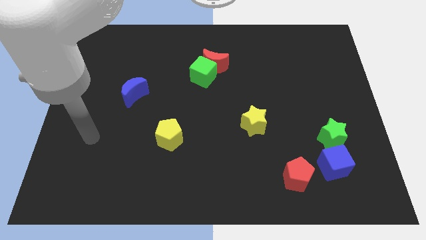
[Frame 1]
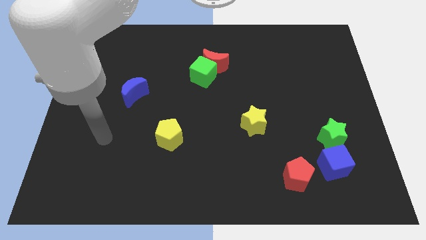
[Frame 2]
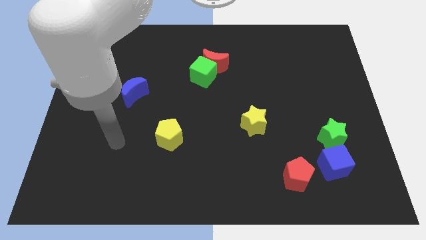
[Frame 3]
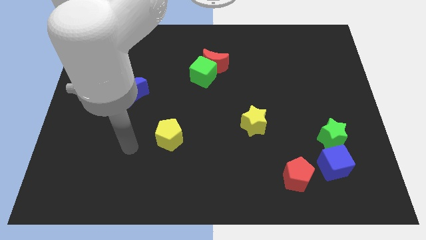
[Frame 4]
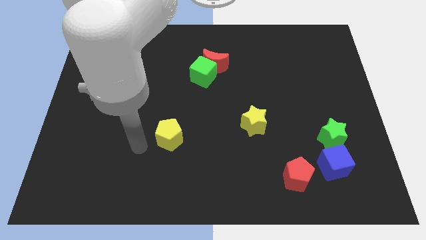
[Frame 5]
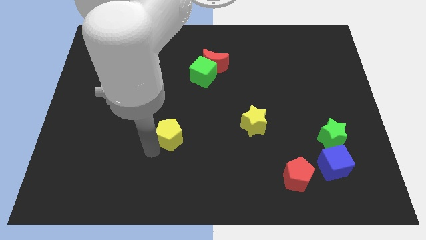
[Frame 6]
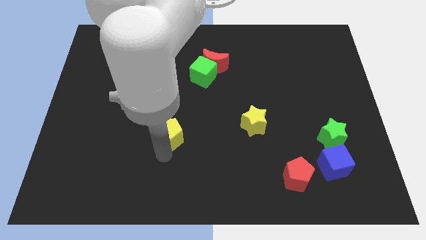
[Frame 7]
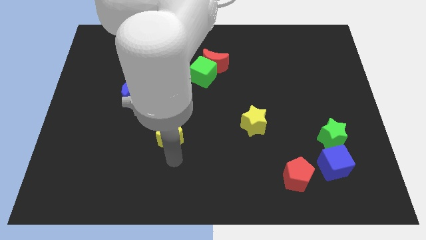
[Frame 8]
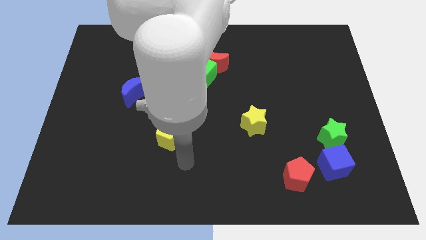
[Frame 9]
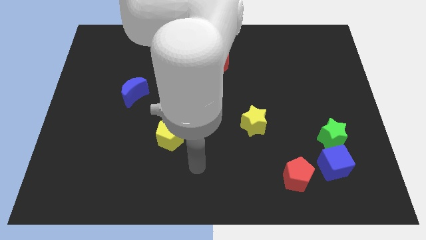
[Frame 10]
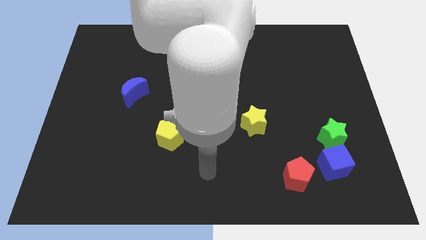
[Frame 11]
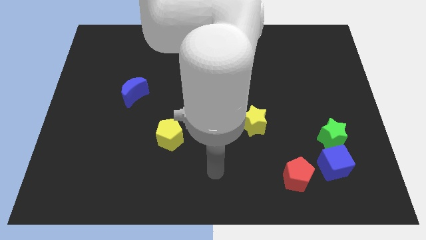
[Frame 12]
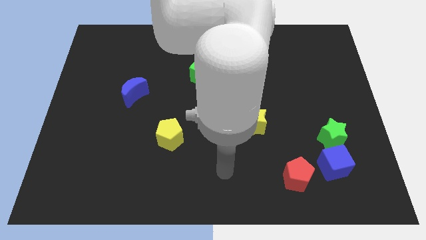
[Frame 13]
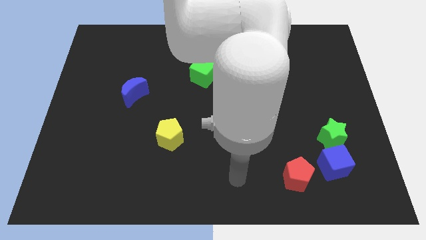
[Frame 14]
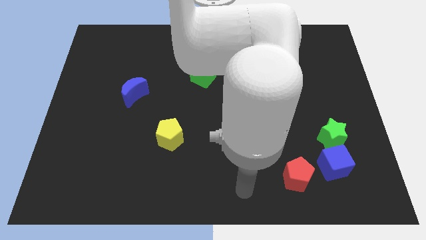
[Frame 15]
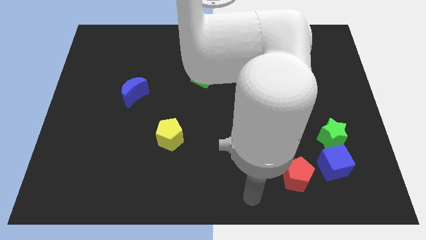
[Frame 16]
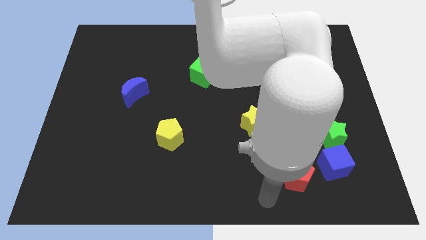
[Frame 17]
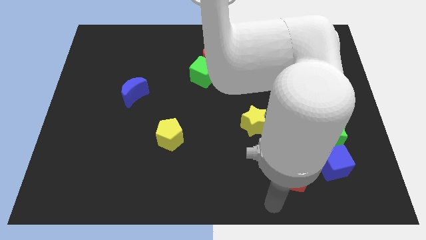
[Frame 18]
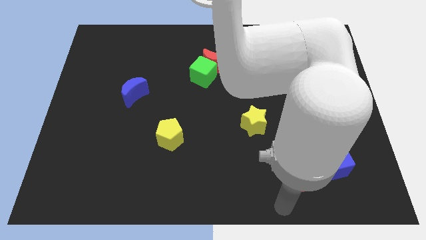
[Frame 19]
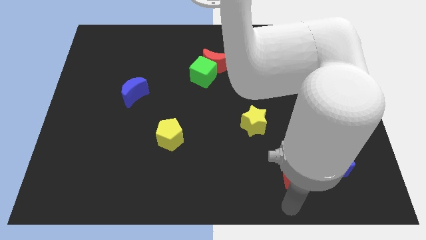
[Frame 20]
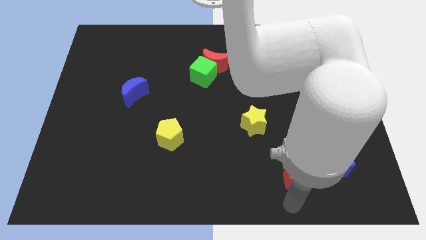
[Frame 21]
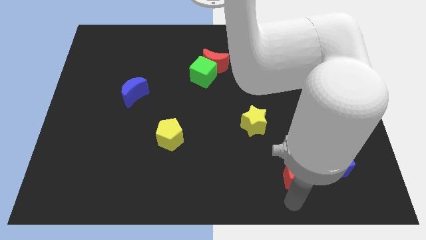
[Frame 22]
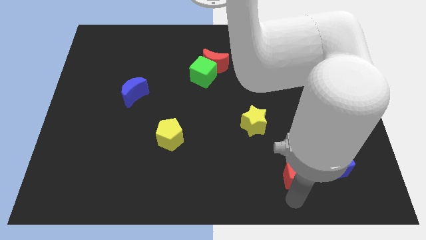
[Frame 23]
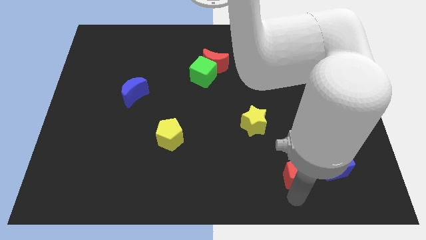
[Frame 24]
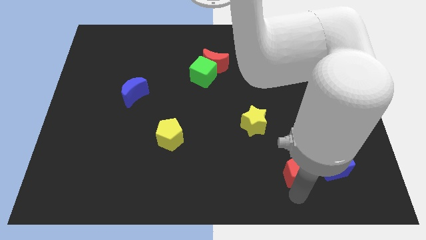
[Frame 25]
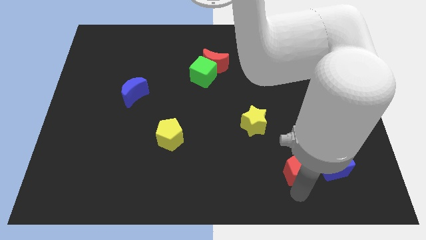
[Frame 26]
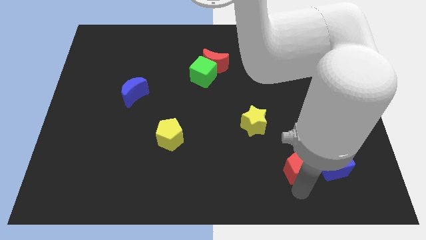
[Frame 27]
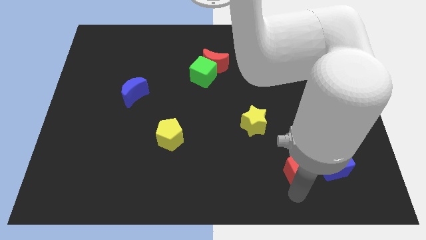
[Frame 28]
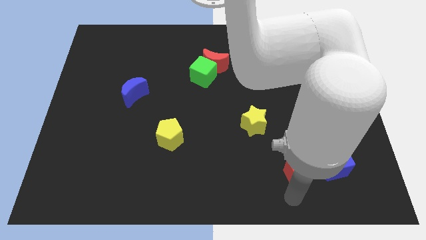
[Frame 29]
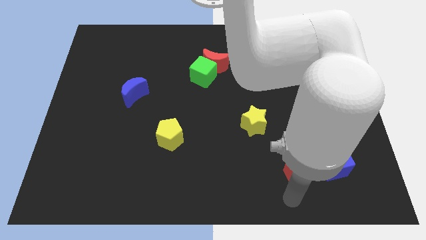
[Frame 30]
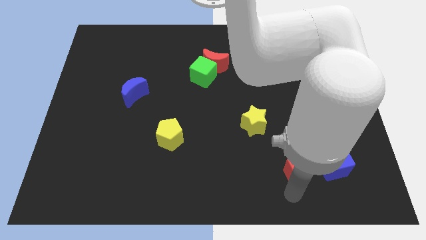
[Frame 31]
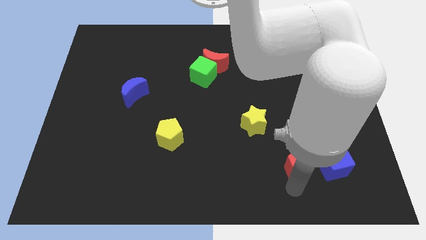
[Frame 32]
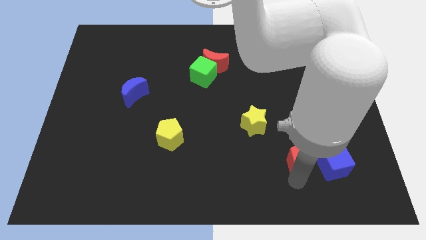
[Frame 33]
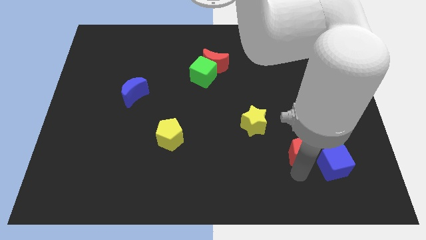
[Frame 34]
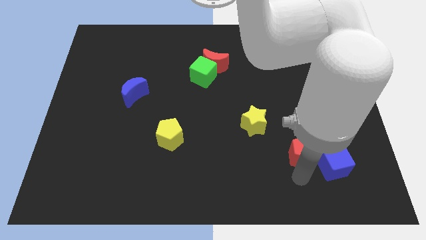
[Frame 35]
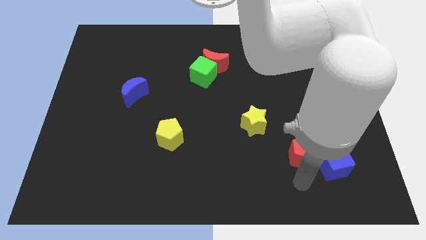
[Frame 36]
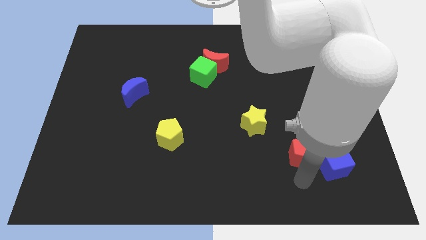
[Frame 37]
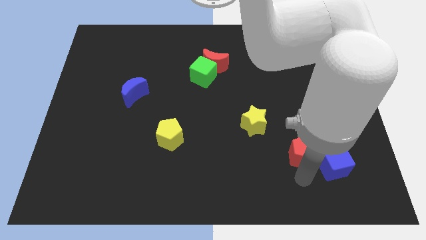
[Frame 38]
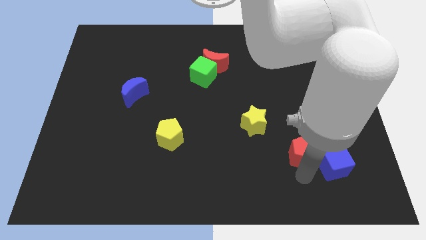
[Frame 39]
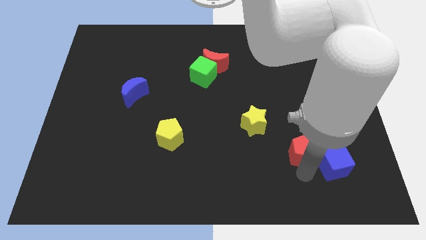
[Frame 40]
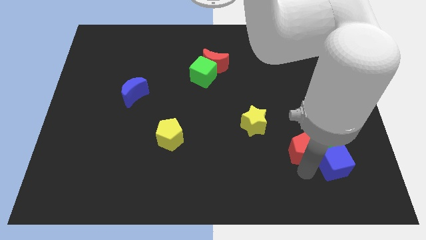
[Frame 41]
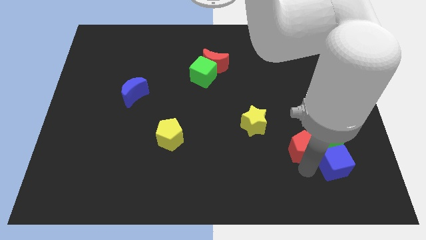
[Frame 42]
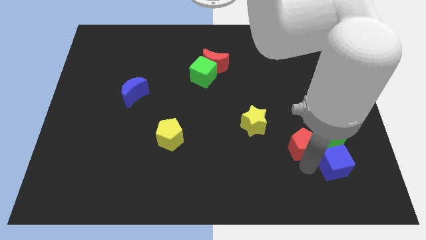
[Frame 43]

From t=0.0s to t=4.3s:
move the red pentagon upwards a little

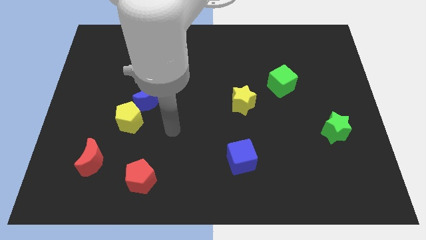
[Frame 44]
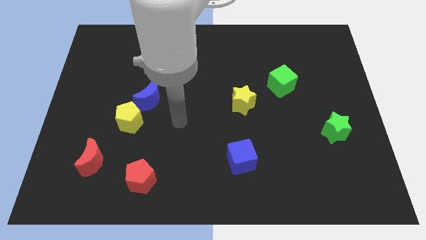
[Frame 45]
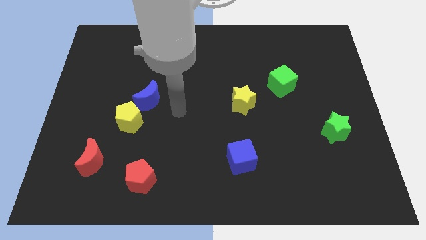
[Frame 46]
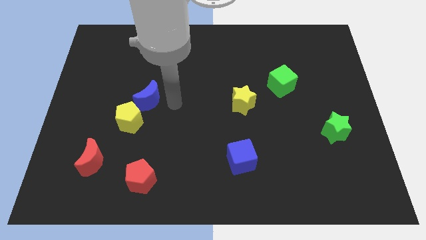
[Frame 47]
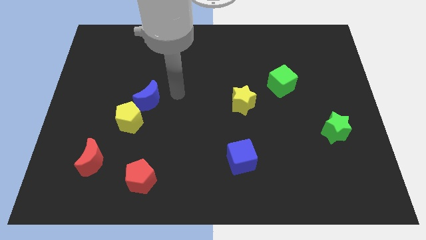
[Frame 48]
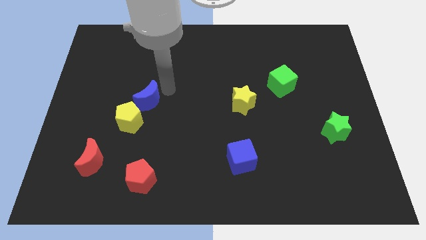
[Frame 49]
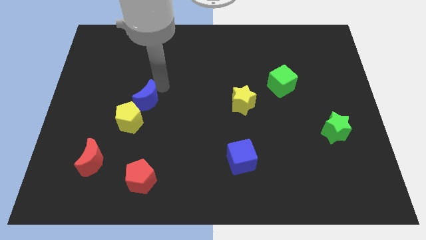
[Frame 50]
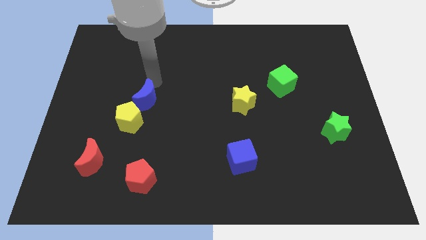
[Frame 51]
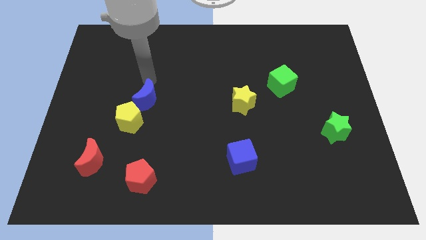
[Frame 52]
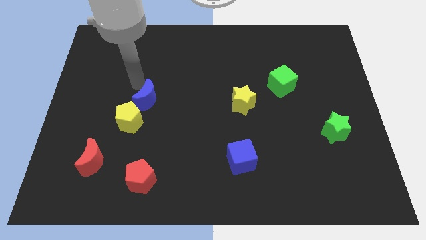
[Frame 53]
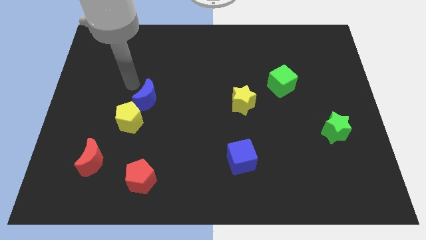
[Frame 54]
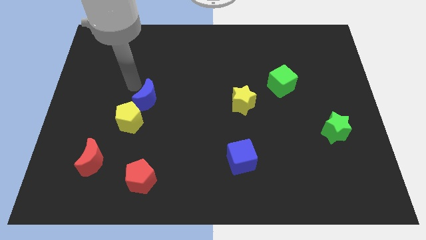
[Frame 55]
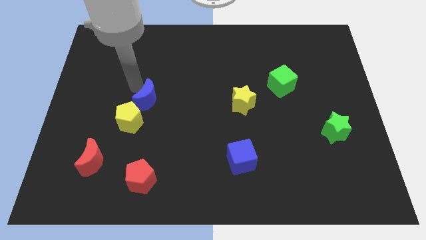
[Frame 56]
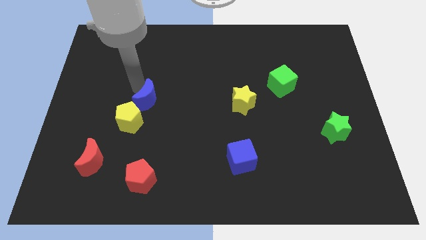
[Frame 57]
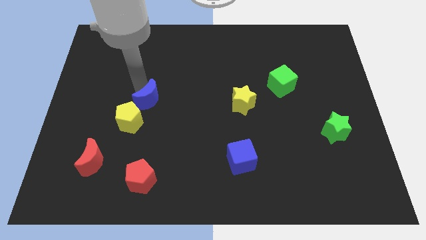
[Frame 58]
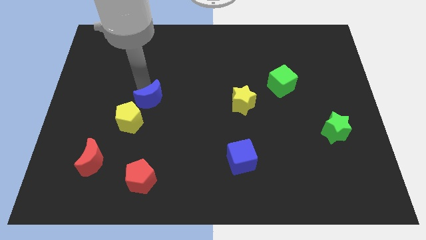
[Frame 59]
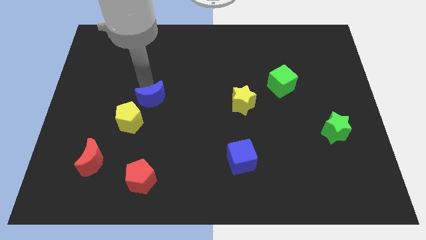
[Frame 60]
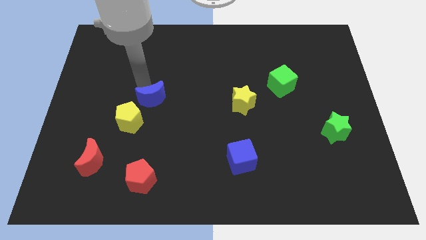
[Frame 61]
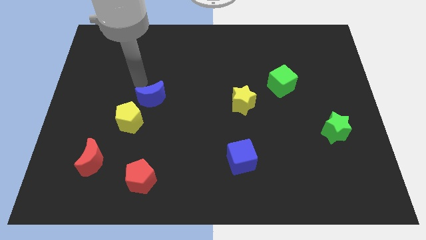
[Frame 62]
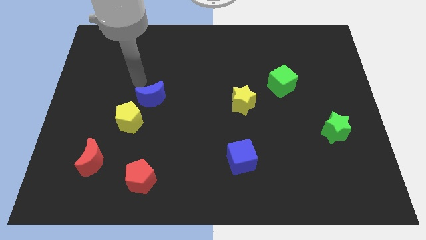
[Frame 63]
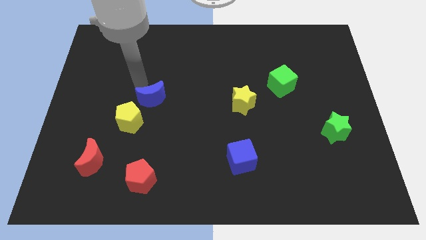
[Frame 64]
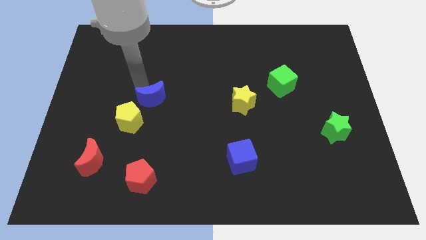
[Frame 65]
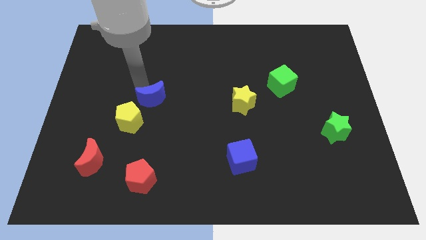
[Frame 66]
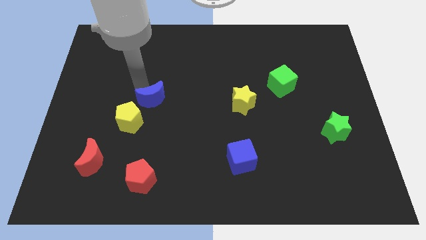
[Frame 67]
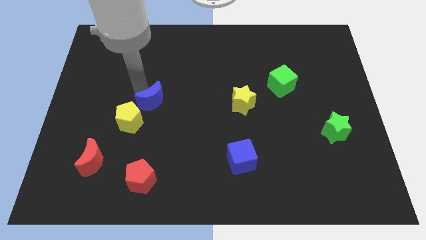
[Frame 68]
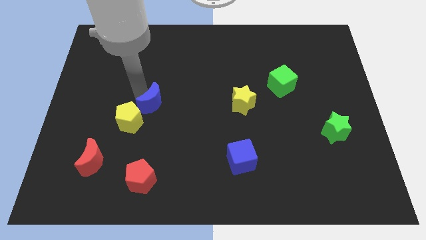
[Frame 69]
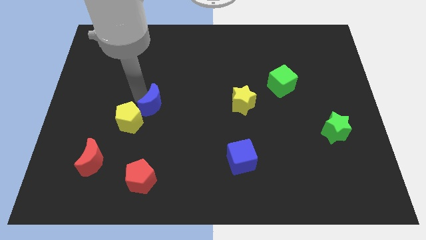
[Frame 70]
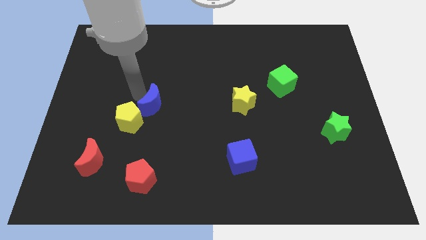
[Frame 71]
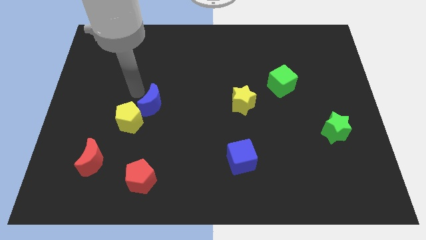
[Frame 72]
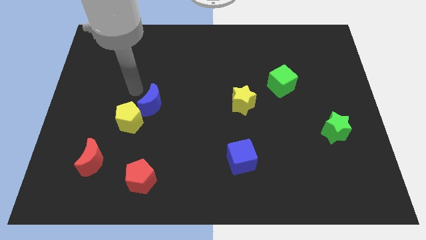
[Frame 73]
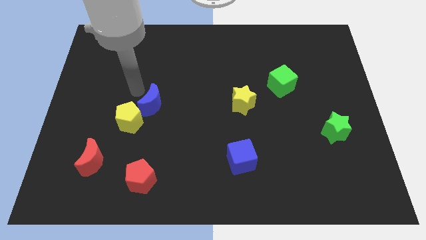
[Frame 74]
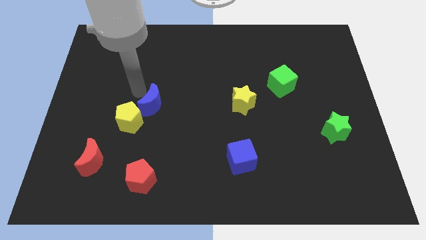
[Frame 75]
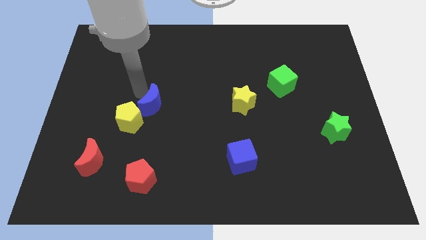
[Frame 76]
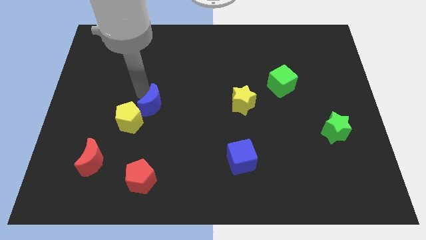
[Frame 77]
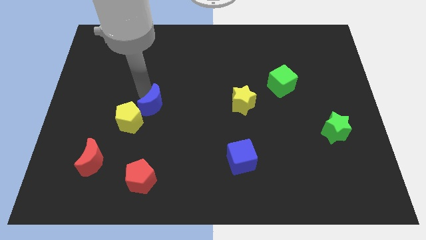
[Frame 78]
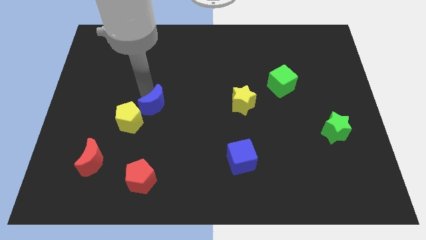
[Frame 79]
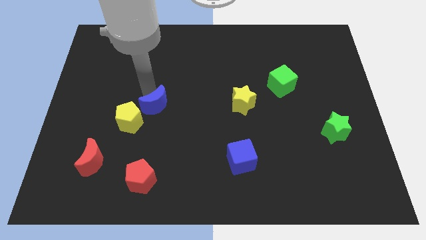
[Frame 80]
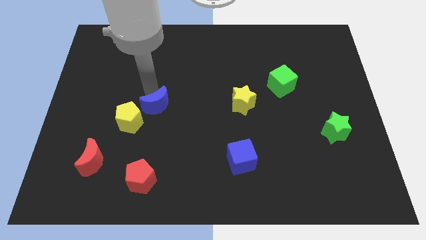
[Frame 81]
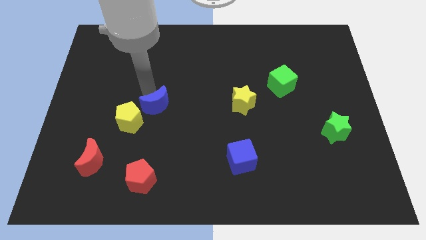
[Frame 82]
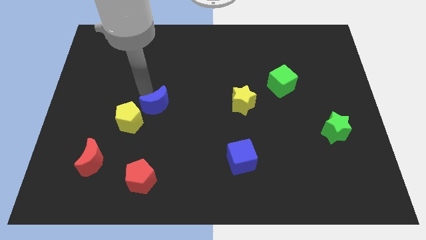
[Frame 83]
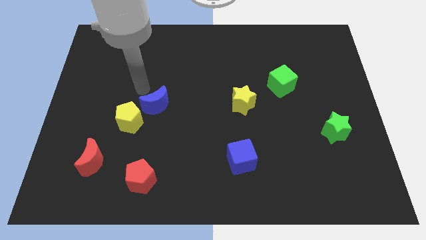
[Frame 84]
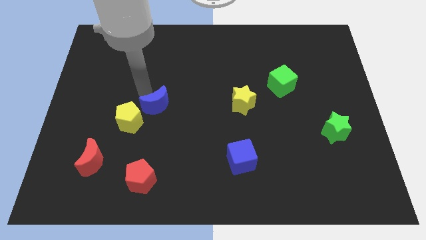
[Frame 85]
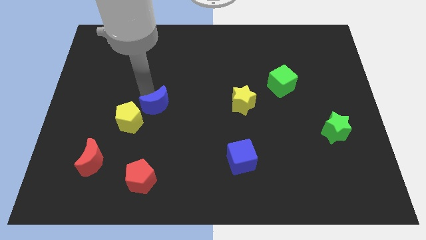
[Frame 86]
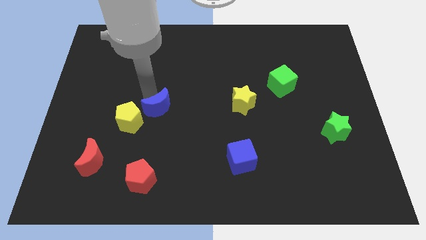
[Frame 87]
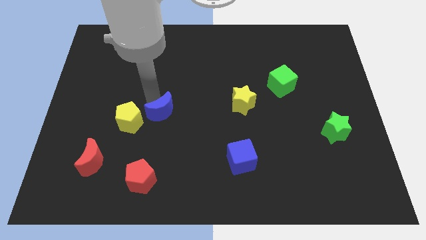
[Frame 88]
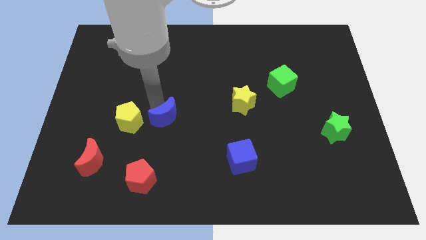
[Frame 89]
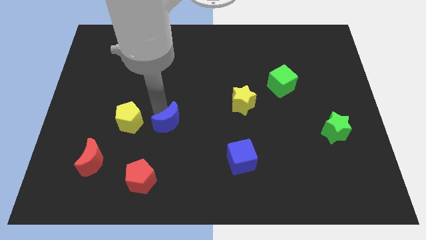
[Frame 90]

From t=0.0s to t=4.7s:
push the blue moon down and then to the right slightly
